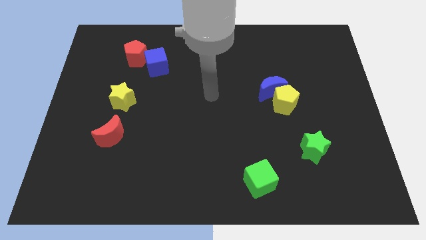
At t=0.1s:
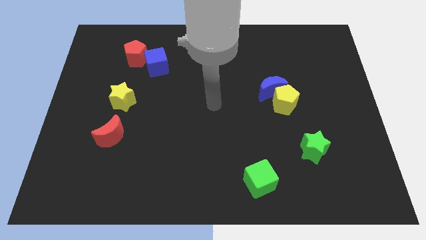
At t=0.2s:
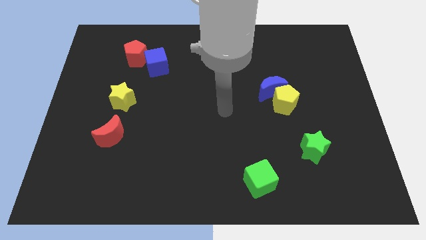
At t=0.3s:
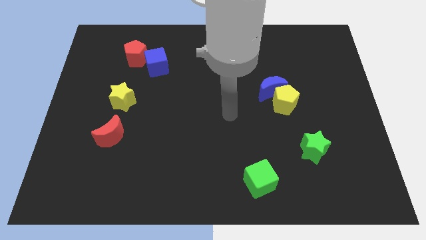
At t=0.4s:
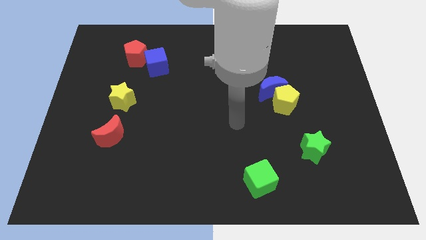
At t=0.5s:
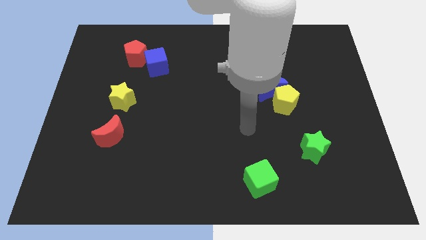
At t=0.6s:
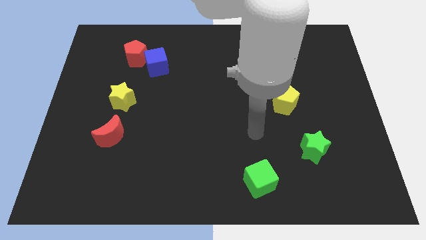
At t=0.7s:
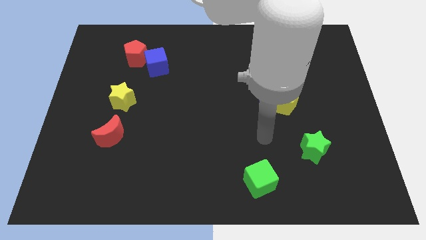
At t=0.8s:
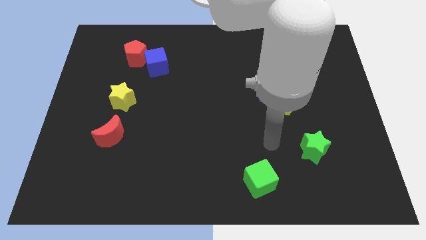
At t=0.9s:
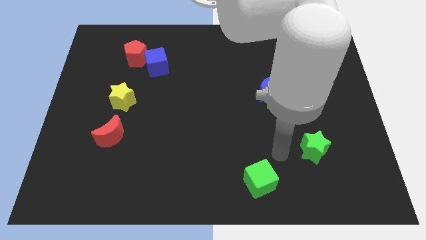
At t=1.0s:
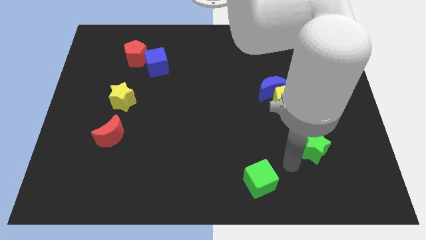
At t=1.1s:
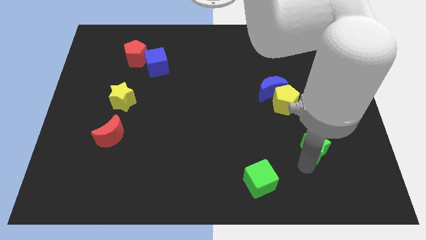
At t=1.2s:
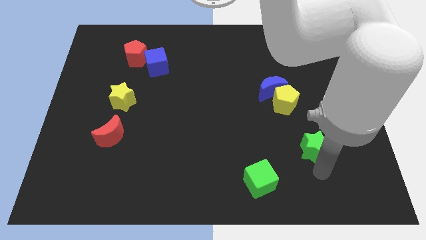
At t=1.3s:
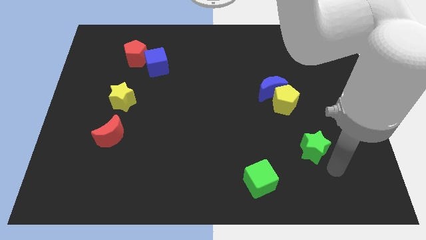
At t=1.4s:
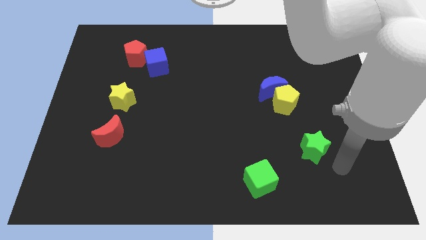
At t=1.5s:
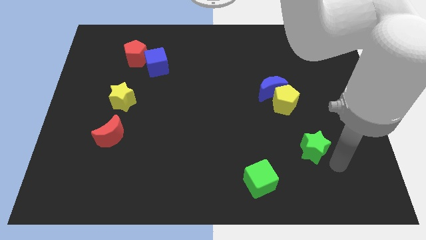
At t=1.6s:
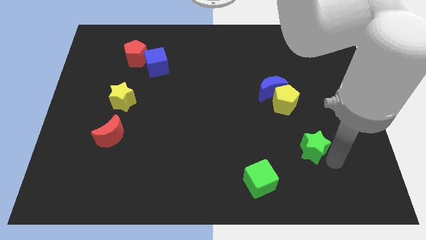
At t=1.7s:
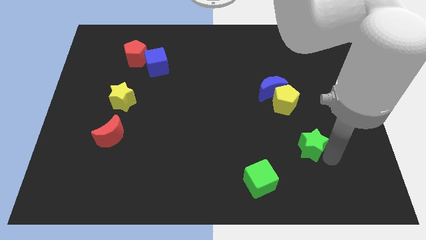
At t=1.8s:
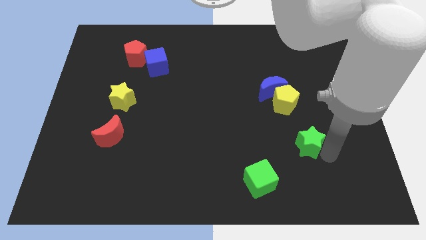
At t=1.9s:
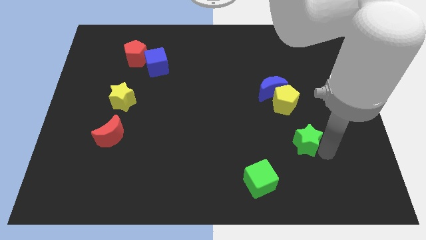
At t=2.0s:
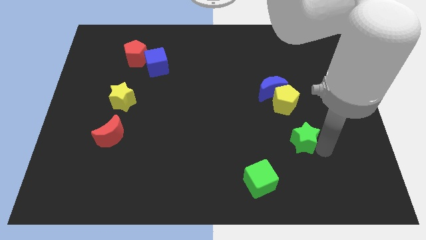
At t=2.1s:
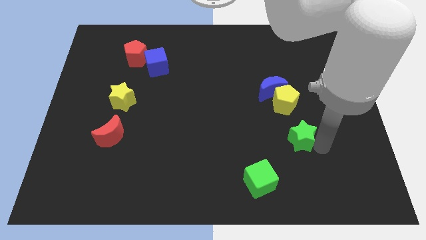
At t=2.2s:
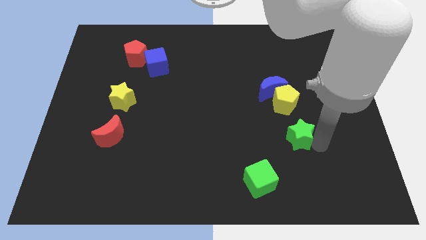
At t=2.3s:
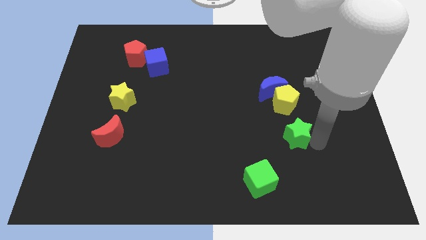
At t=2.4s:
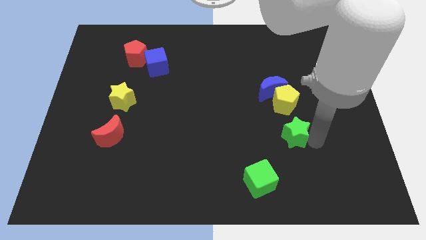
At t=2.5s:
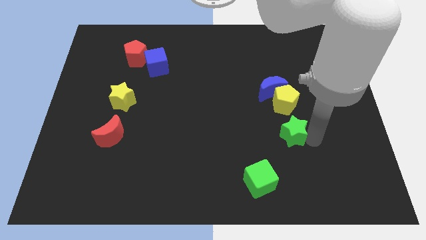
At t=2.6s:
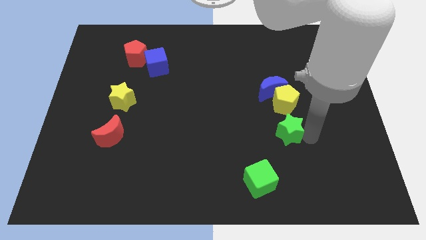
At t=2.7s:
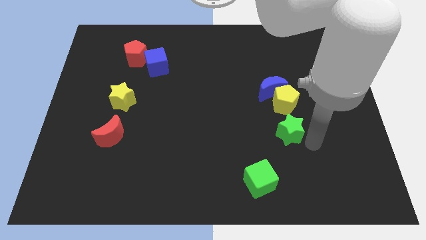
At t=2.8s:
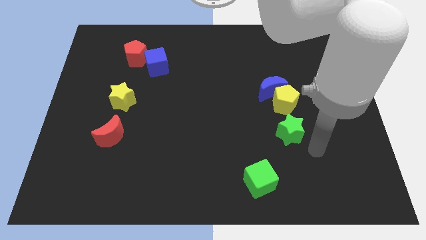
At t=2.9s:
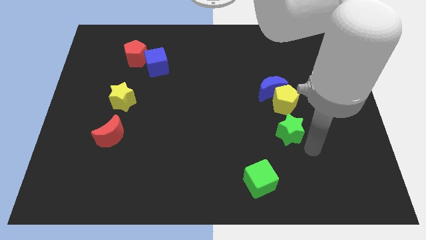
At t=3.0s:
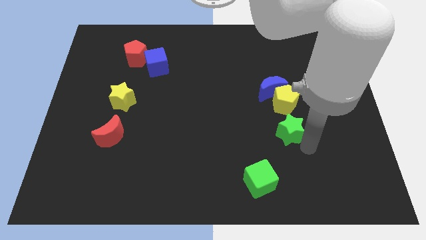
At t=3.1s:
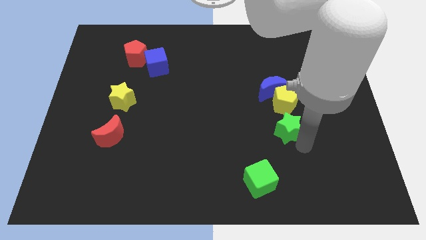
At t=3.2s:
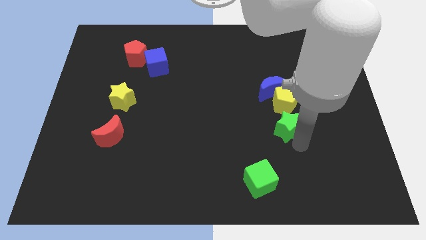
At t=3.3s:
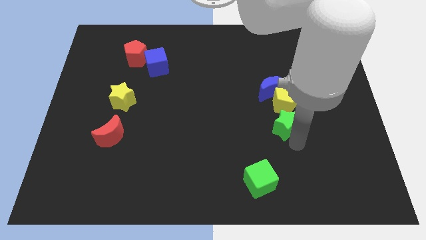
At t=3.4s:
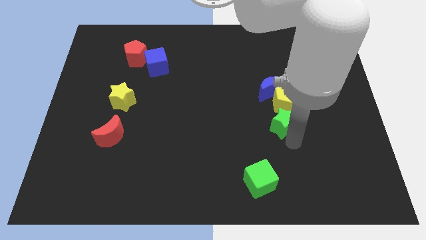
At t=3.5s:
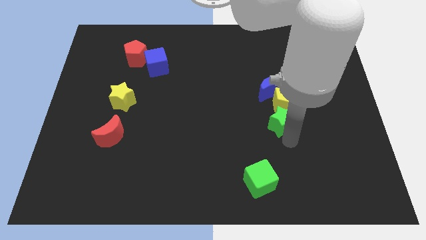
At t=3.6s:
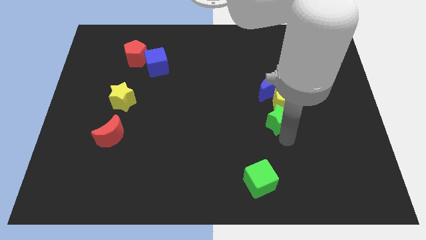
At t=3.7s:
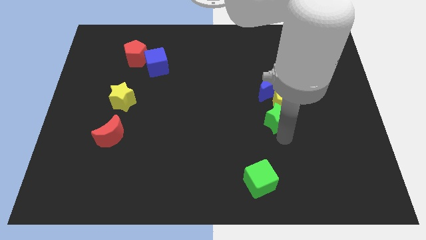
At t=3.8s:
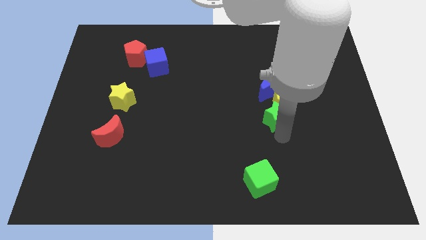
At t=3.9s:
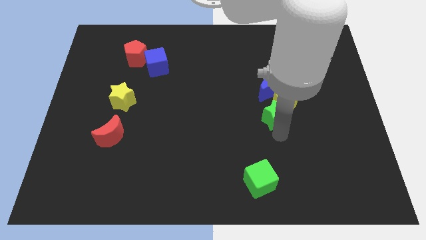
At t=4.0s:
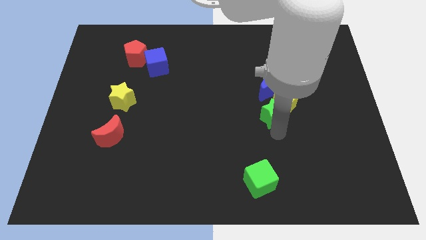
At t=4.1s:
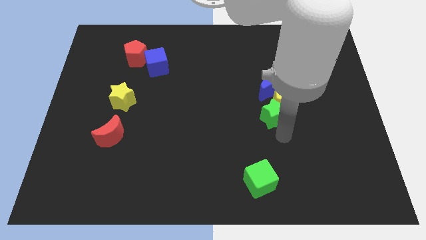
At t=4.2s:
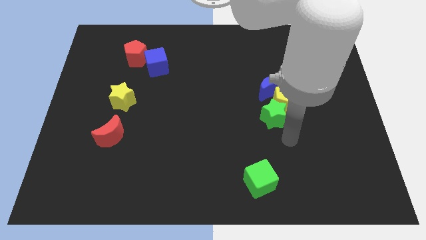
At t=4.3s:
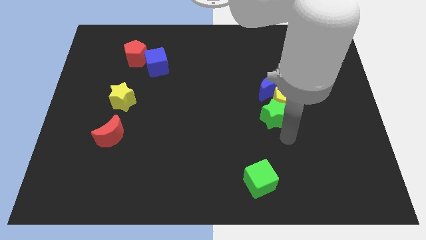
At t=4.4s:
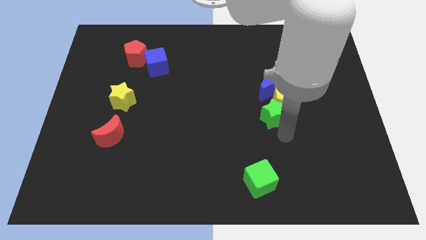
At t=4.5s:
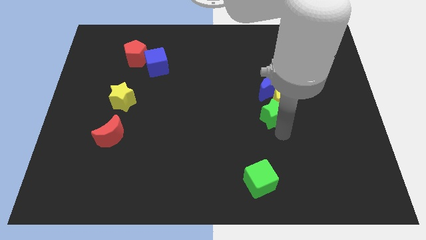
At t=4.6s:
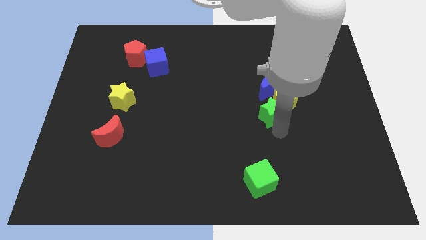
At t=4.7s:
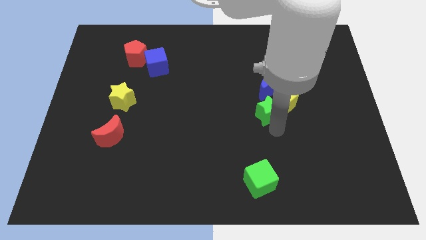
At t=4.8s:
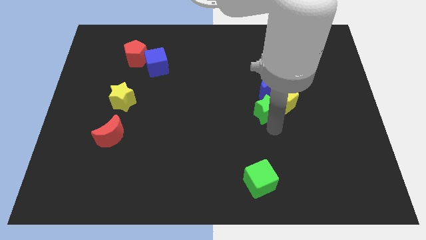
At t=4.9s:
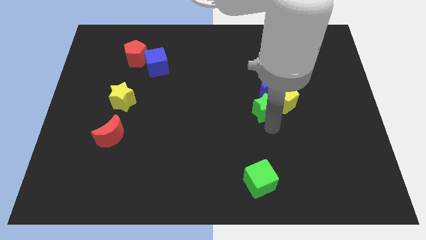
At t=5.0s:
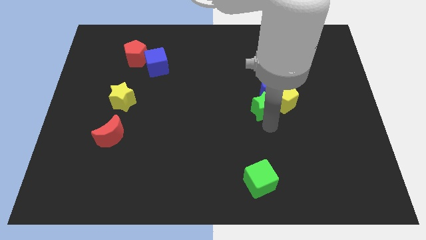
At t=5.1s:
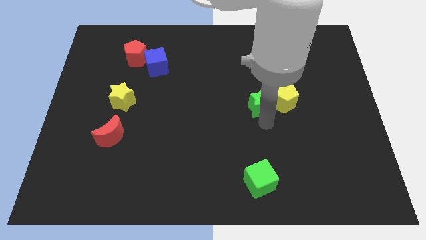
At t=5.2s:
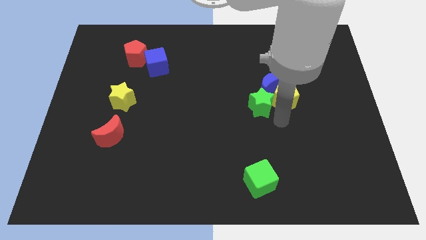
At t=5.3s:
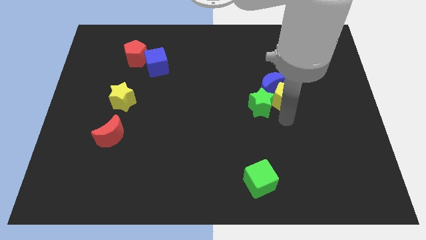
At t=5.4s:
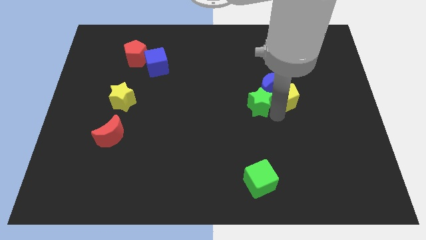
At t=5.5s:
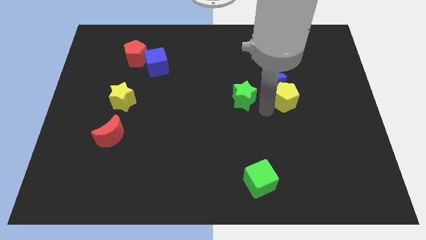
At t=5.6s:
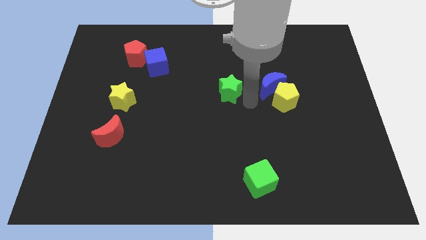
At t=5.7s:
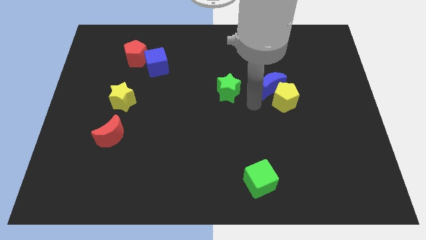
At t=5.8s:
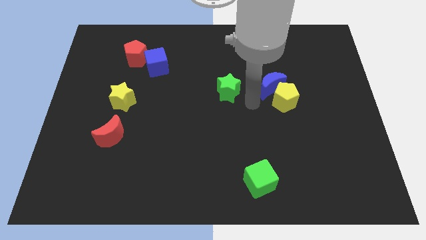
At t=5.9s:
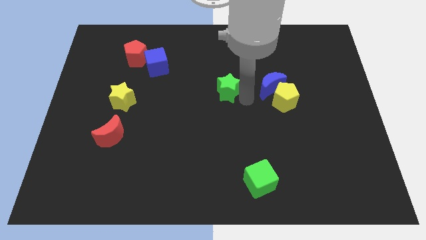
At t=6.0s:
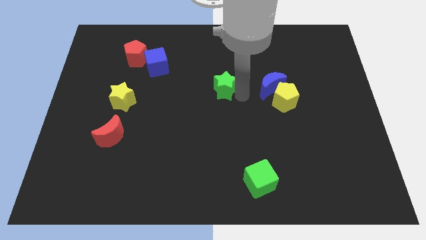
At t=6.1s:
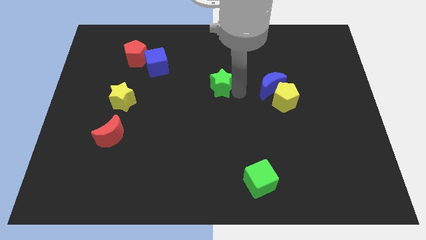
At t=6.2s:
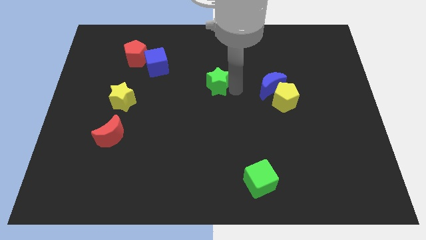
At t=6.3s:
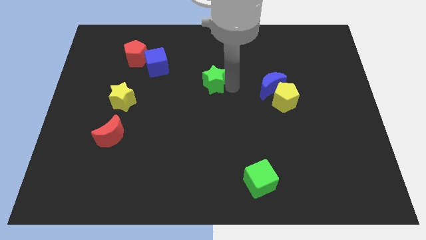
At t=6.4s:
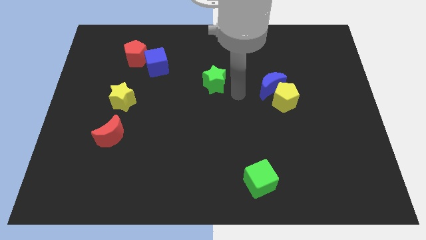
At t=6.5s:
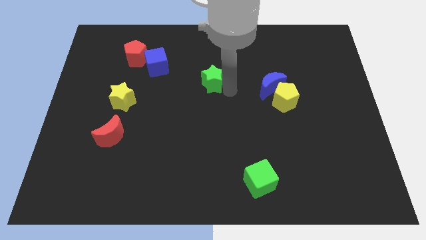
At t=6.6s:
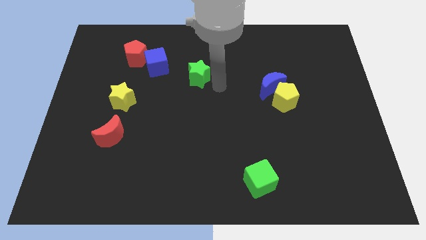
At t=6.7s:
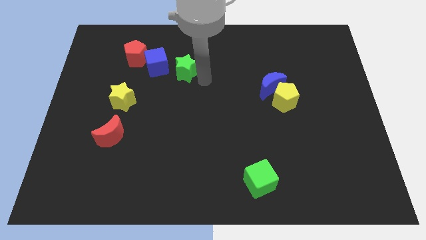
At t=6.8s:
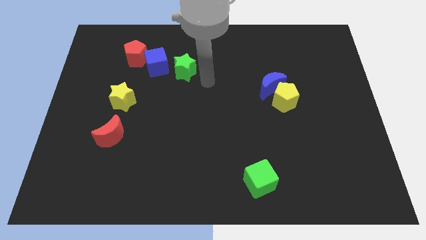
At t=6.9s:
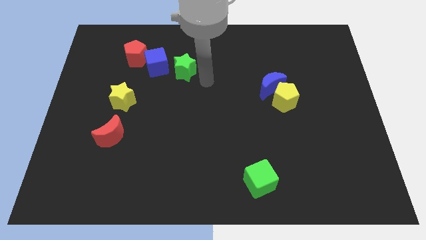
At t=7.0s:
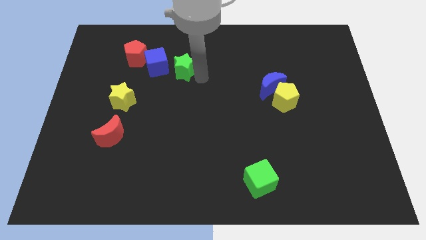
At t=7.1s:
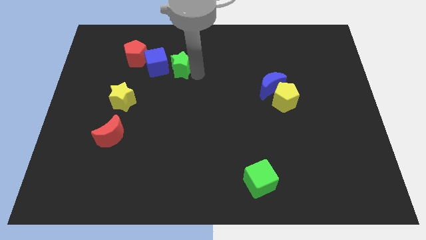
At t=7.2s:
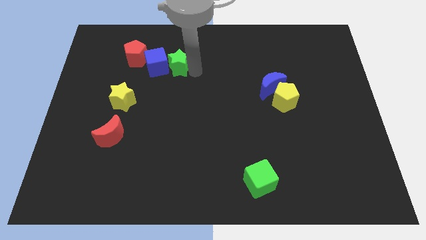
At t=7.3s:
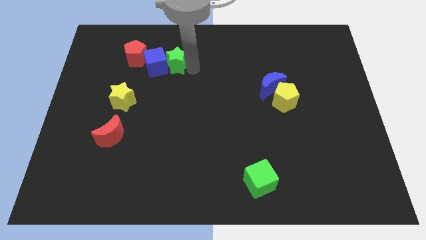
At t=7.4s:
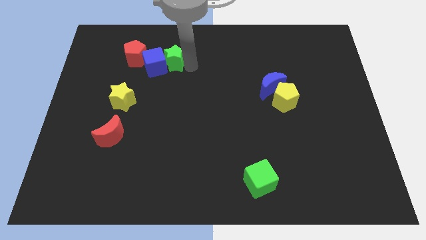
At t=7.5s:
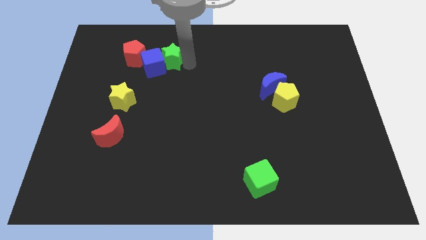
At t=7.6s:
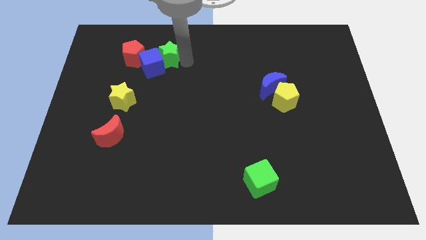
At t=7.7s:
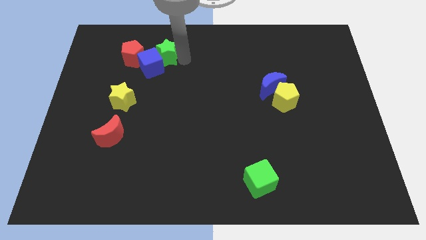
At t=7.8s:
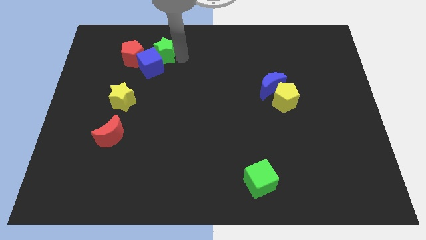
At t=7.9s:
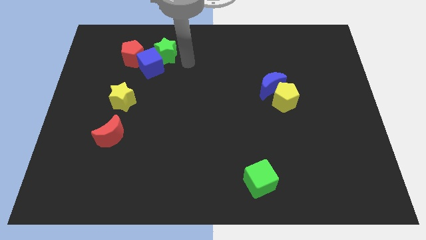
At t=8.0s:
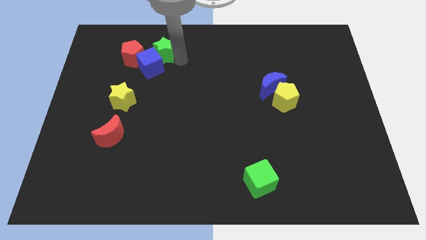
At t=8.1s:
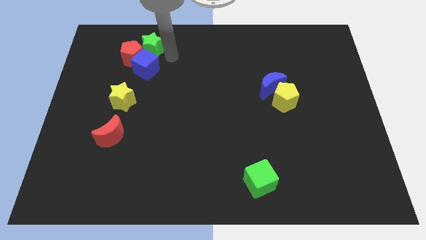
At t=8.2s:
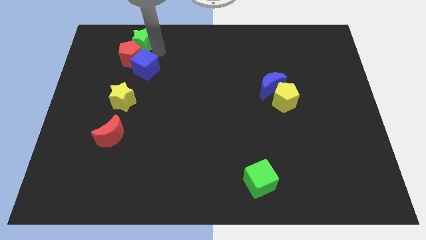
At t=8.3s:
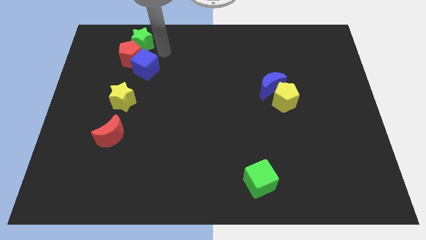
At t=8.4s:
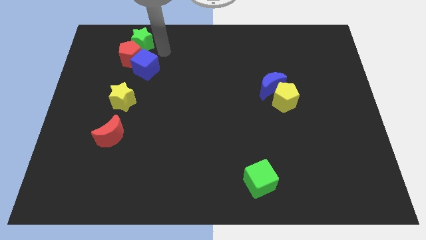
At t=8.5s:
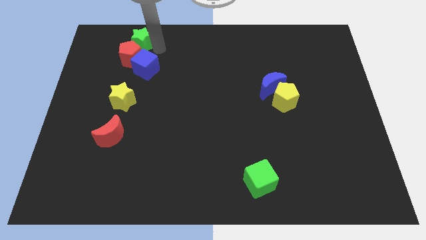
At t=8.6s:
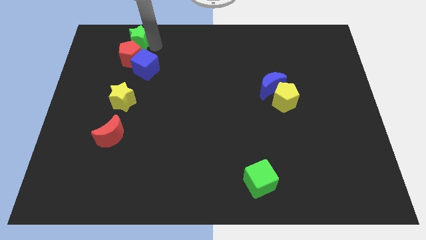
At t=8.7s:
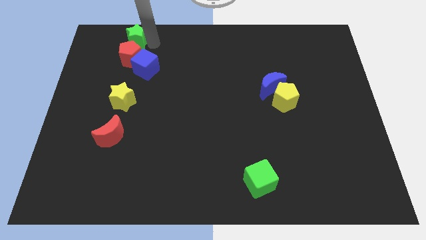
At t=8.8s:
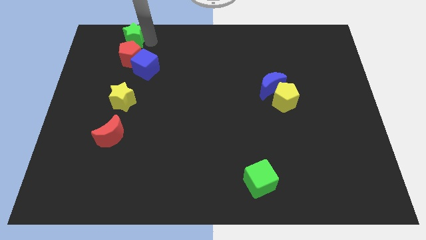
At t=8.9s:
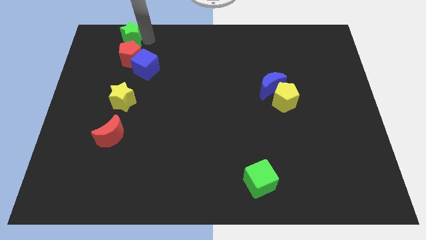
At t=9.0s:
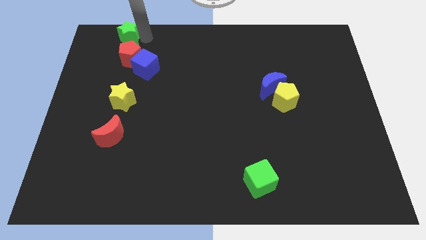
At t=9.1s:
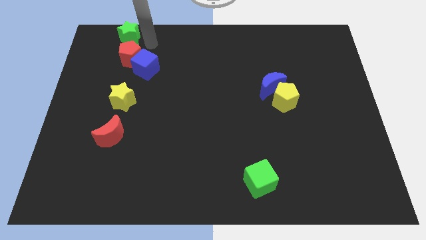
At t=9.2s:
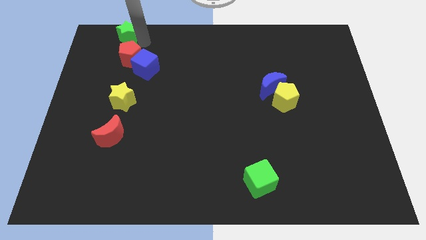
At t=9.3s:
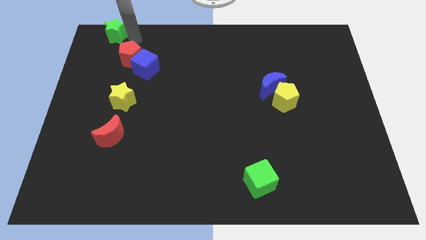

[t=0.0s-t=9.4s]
move the green star to the top left of the board
